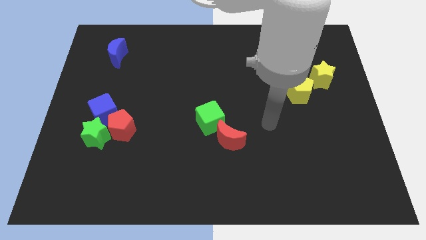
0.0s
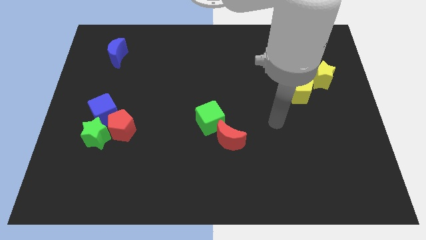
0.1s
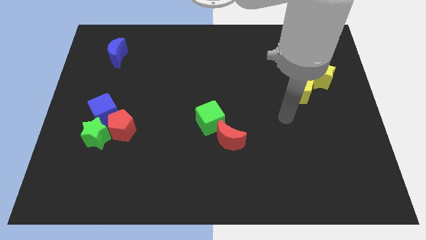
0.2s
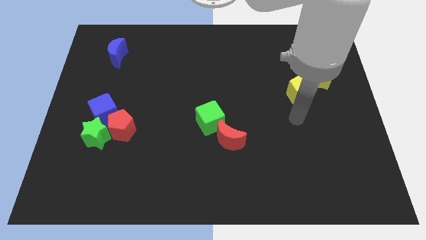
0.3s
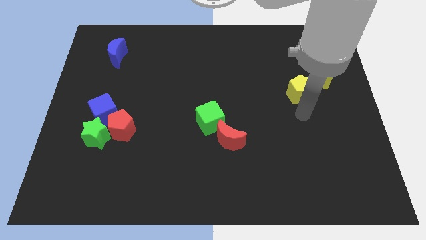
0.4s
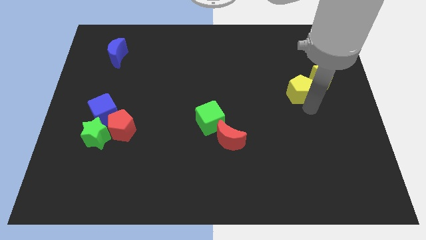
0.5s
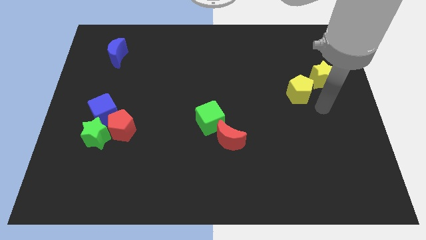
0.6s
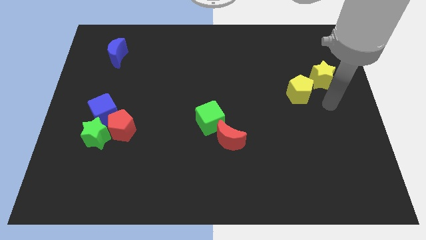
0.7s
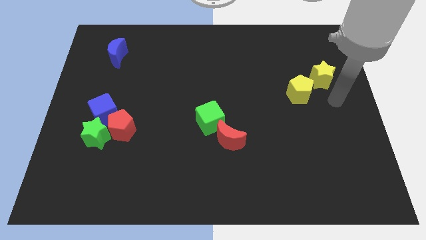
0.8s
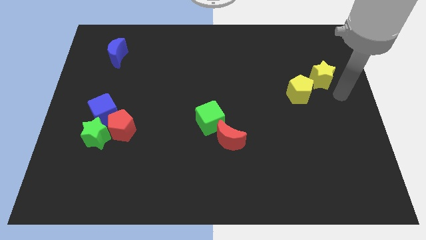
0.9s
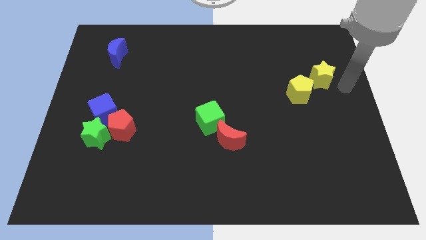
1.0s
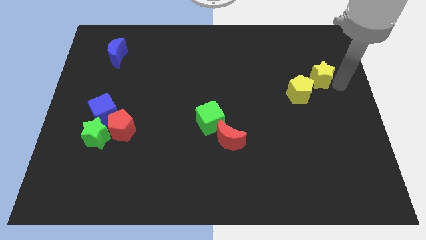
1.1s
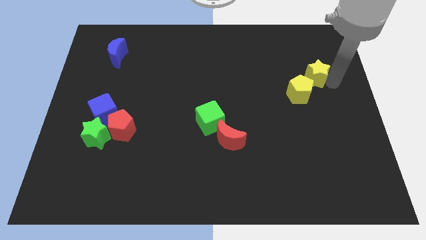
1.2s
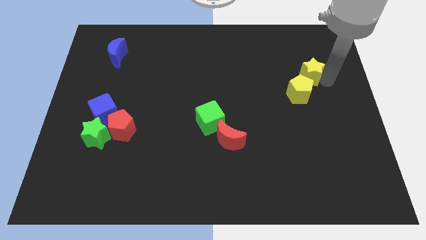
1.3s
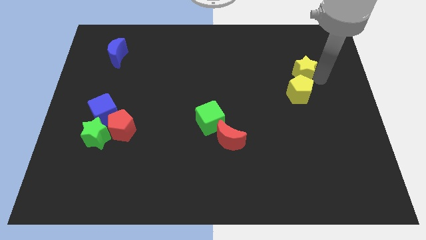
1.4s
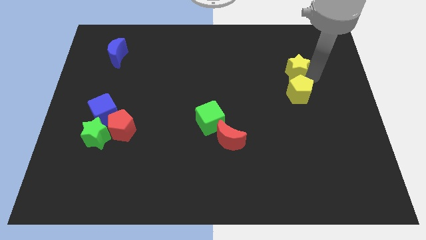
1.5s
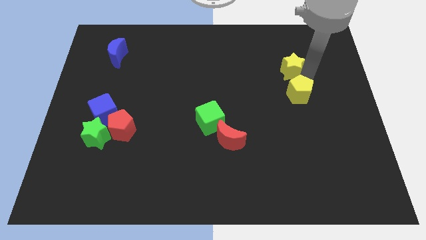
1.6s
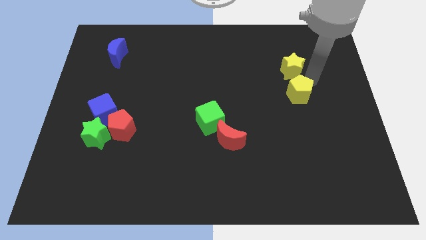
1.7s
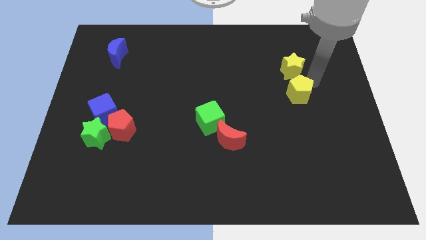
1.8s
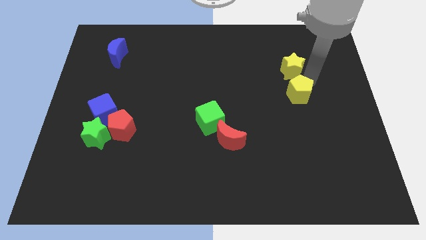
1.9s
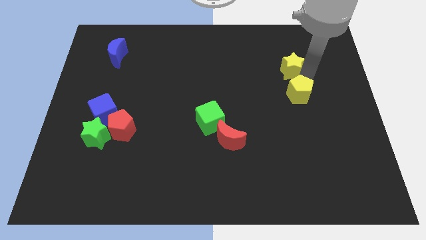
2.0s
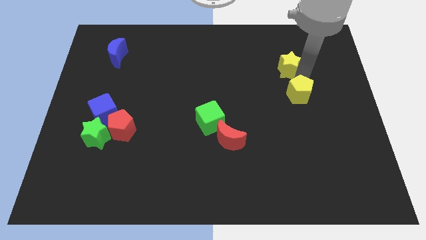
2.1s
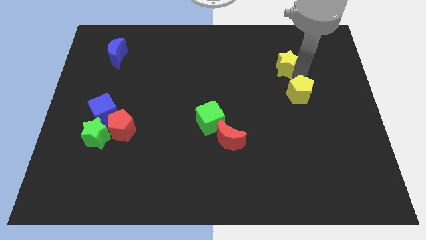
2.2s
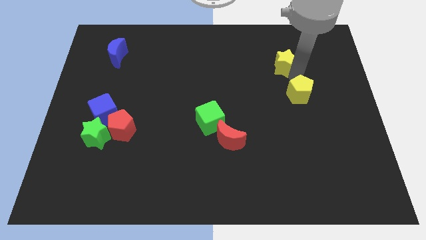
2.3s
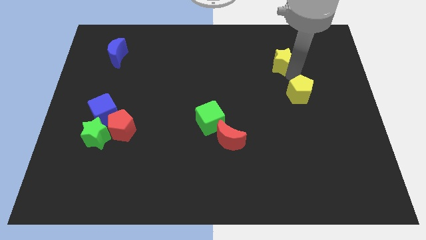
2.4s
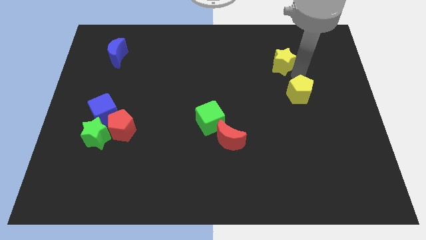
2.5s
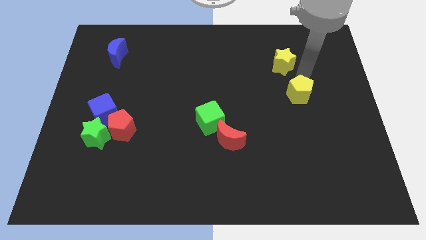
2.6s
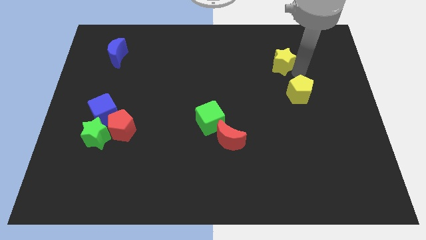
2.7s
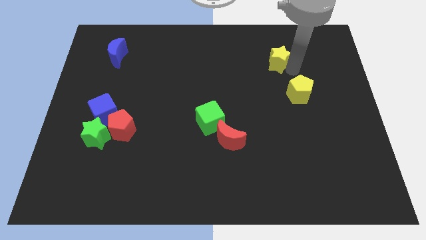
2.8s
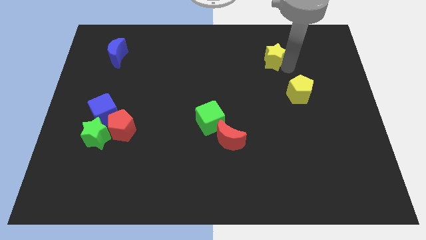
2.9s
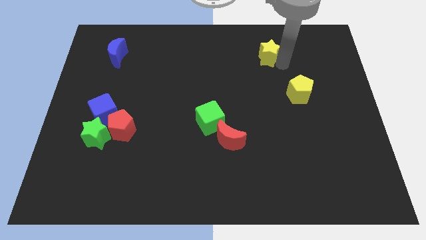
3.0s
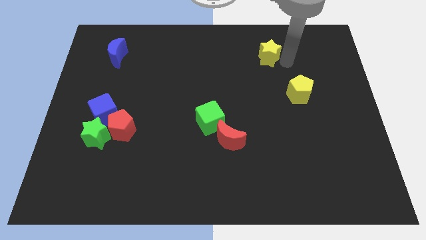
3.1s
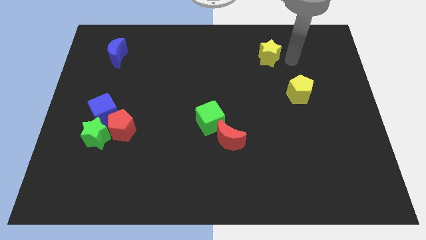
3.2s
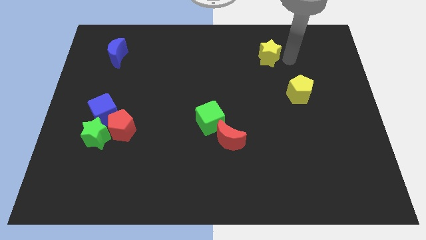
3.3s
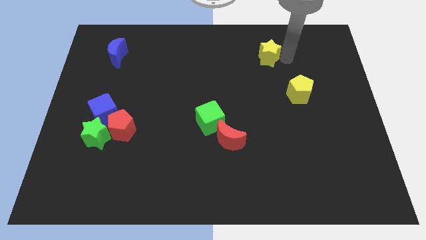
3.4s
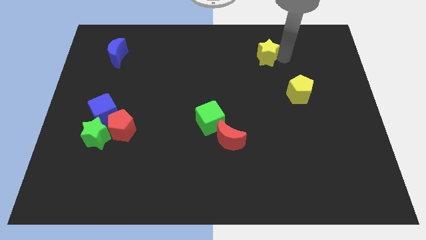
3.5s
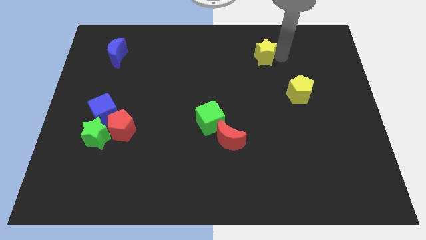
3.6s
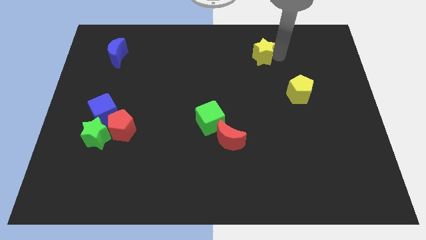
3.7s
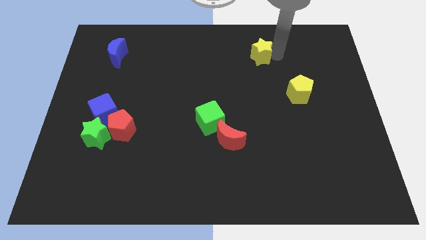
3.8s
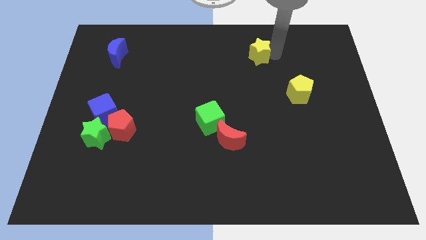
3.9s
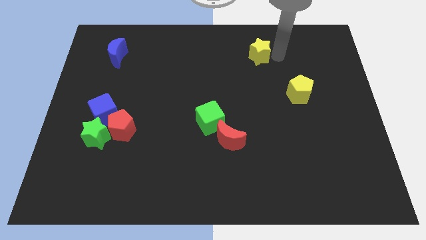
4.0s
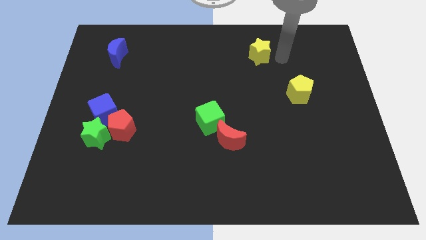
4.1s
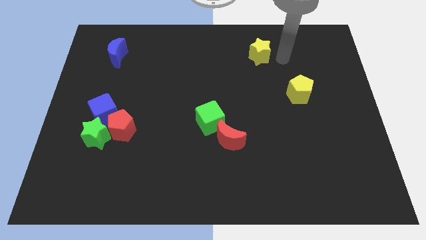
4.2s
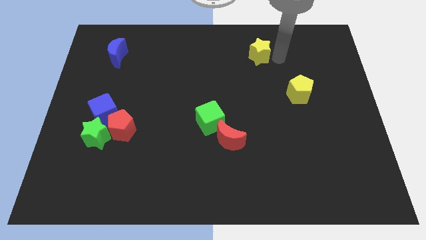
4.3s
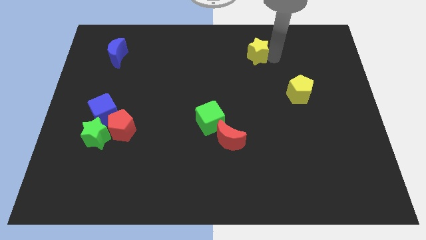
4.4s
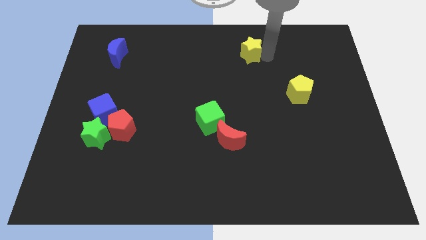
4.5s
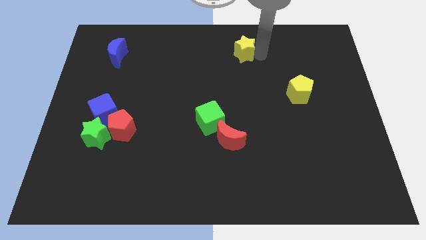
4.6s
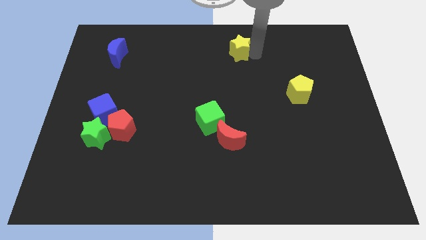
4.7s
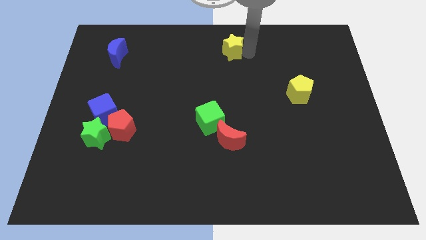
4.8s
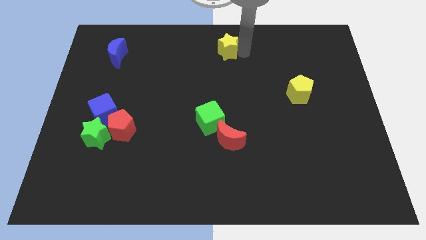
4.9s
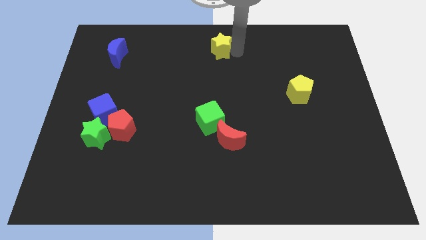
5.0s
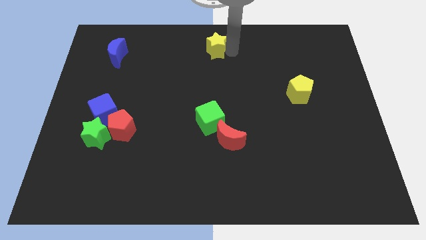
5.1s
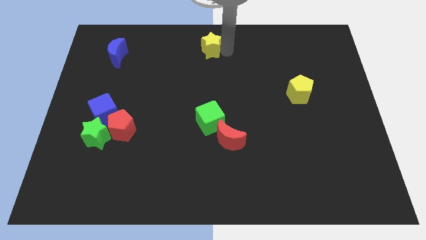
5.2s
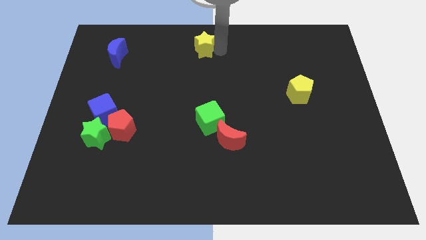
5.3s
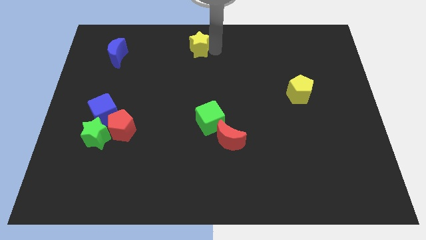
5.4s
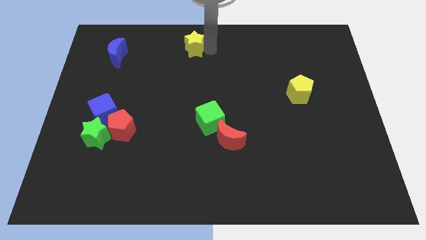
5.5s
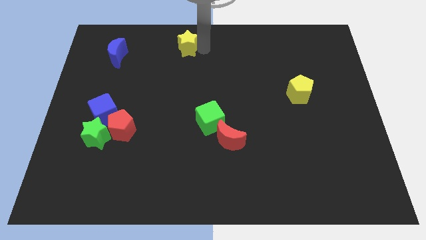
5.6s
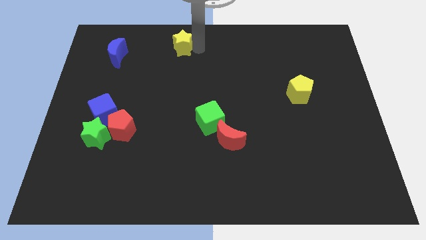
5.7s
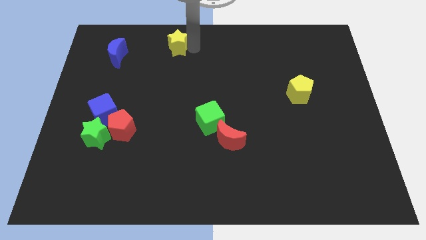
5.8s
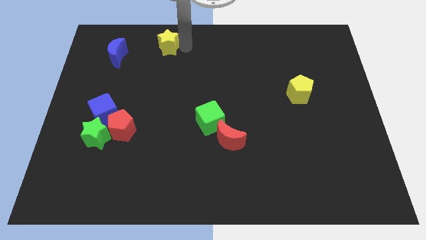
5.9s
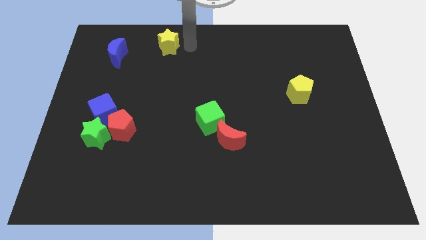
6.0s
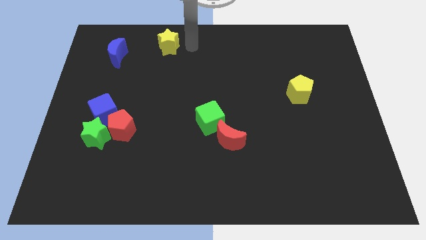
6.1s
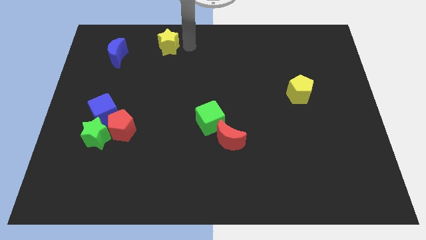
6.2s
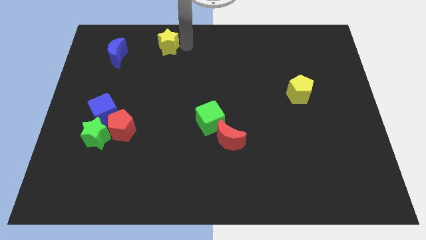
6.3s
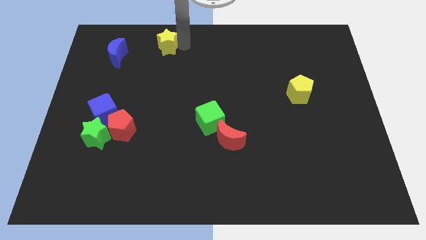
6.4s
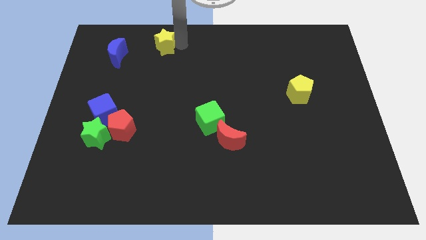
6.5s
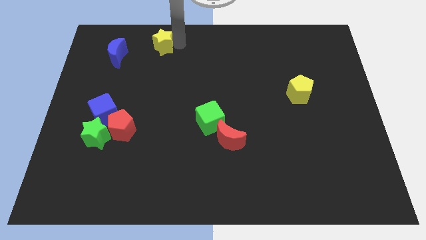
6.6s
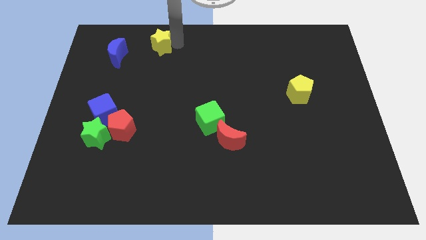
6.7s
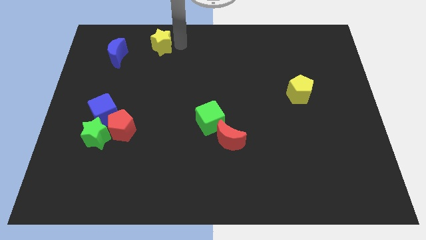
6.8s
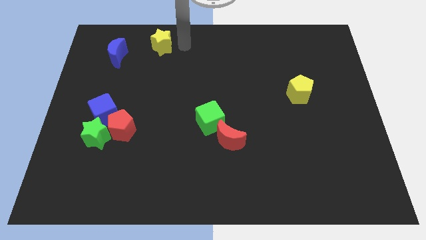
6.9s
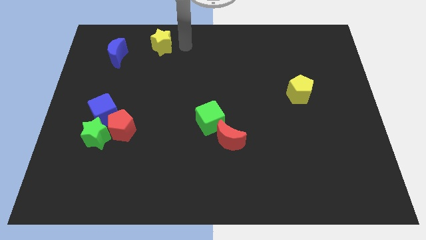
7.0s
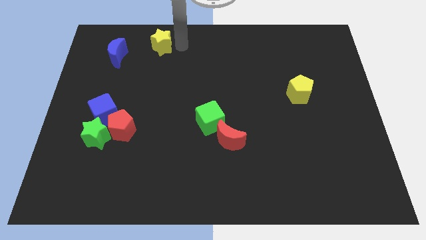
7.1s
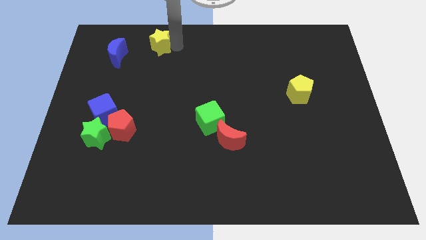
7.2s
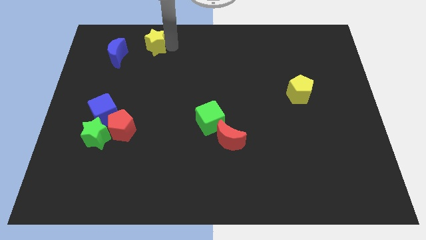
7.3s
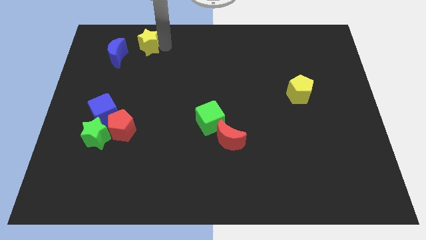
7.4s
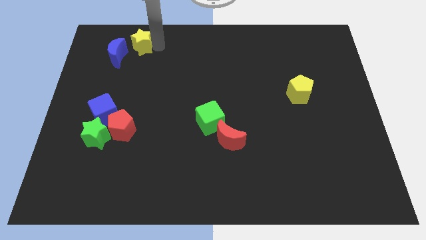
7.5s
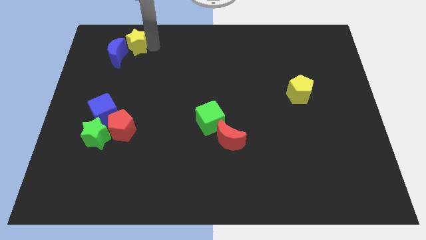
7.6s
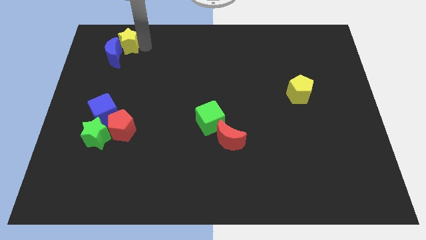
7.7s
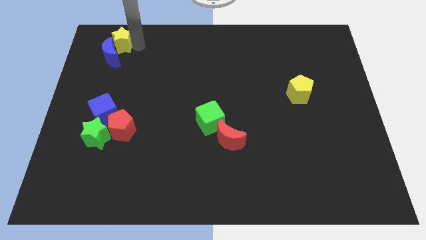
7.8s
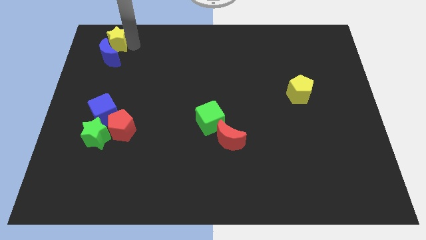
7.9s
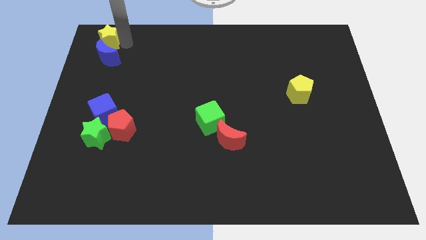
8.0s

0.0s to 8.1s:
put the yellow star to the upper left corner
